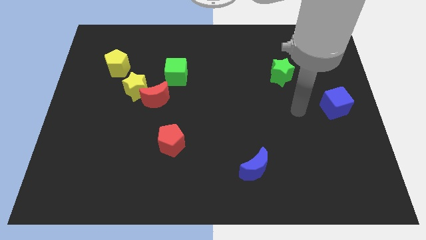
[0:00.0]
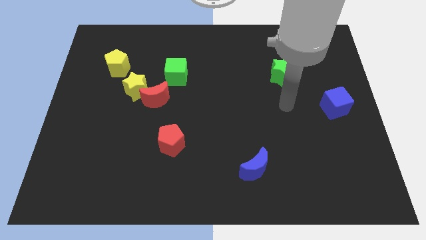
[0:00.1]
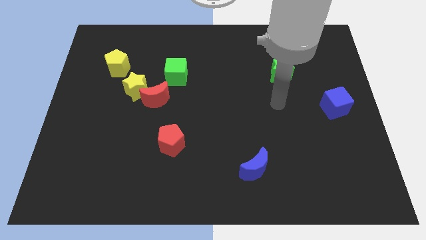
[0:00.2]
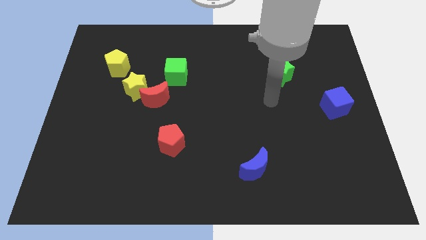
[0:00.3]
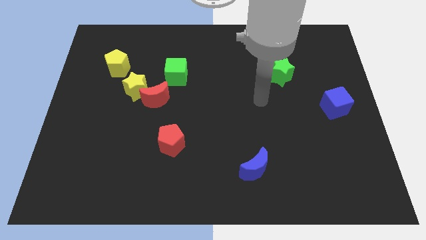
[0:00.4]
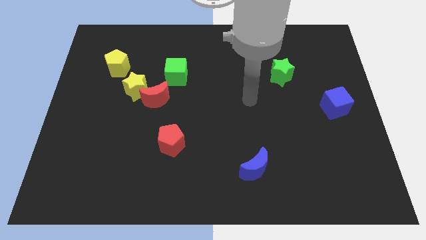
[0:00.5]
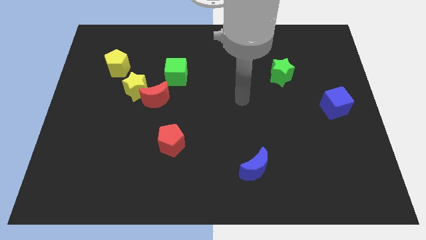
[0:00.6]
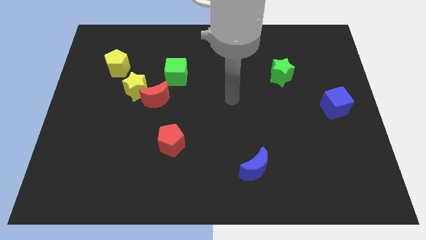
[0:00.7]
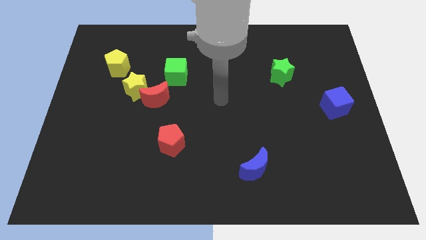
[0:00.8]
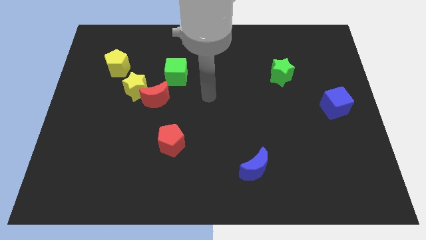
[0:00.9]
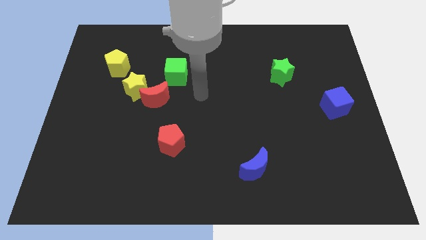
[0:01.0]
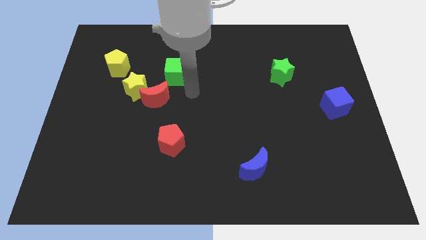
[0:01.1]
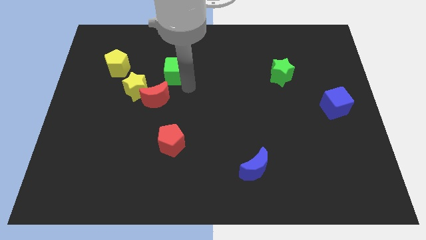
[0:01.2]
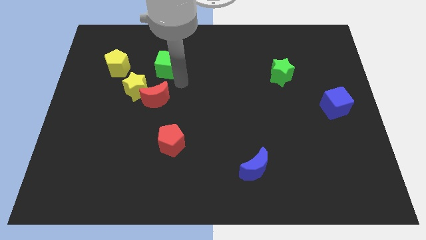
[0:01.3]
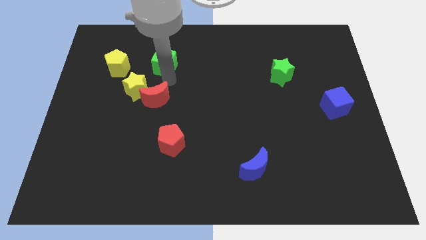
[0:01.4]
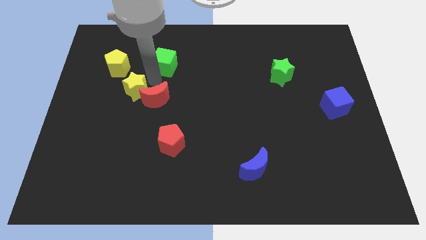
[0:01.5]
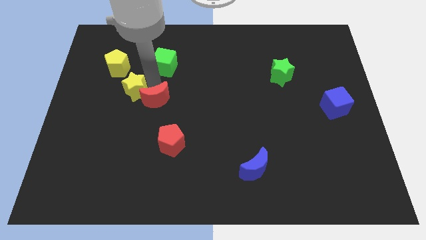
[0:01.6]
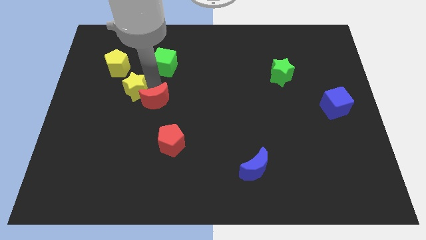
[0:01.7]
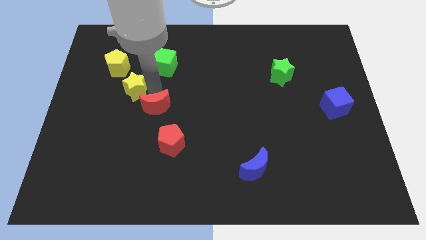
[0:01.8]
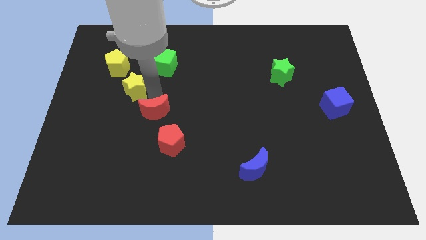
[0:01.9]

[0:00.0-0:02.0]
separate the red moon from the yellow star and green cube

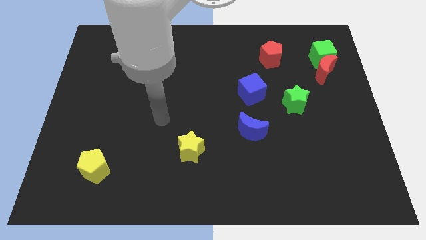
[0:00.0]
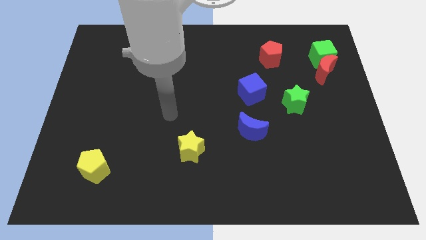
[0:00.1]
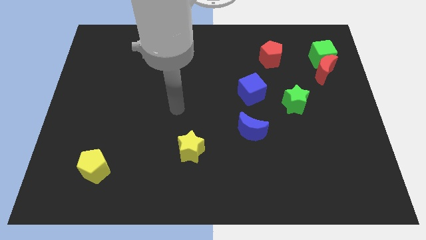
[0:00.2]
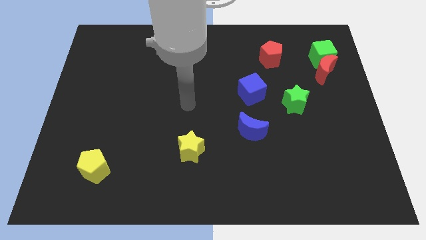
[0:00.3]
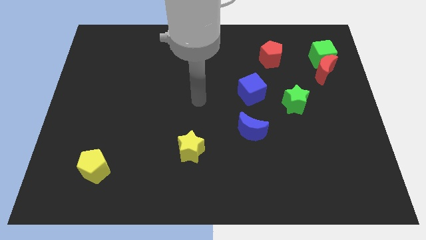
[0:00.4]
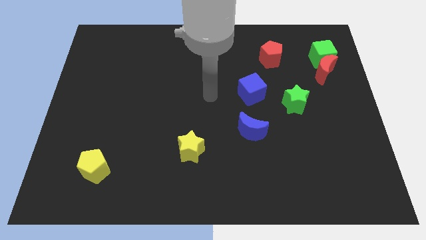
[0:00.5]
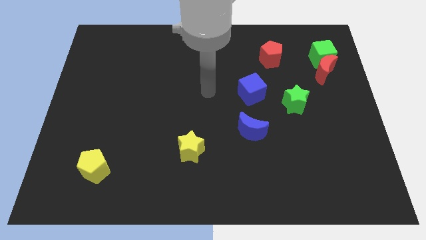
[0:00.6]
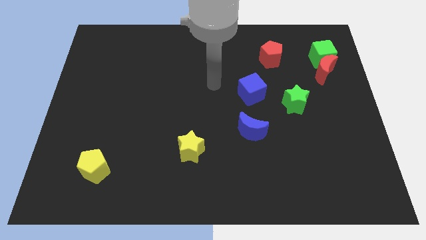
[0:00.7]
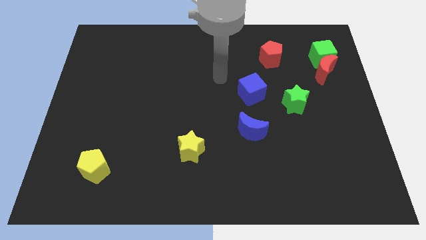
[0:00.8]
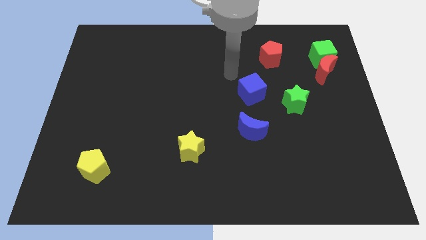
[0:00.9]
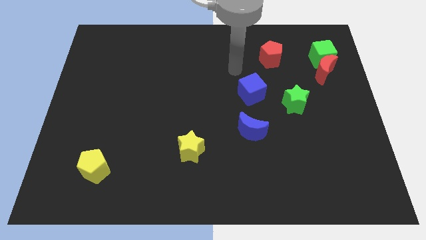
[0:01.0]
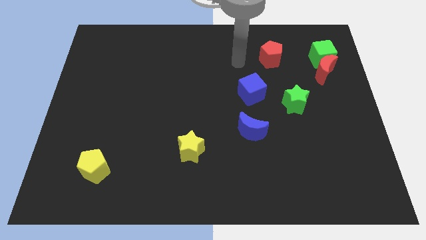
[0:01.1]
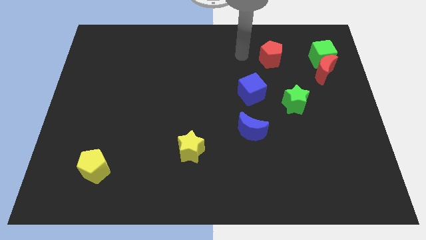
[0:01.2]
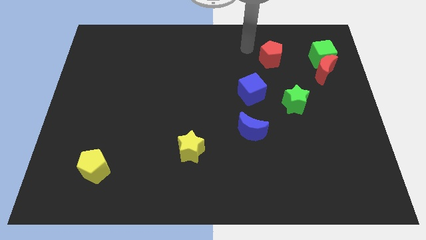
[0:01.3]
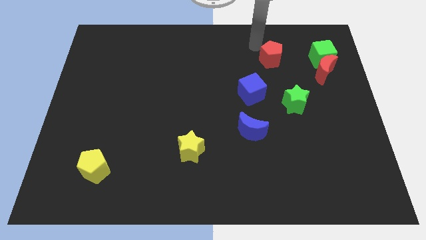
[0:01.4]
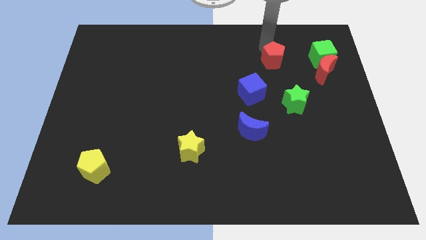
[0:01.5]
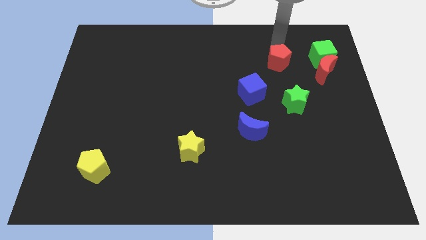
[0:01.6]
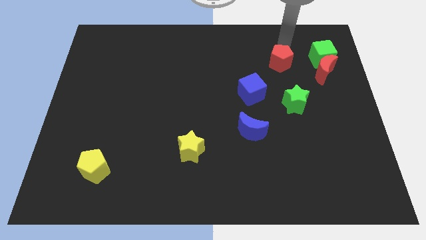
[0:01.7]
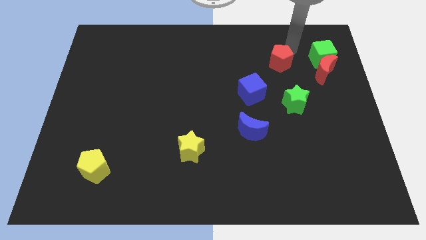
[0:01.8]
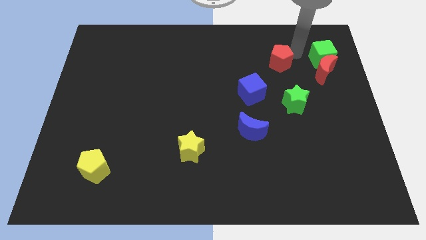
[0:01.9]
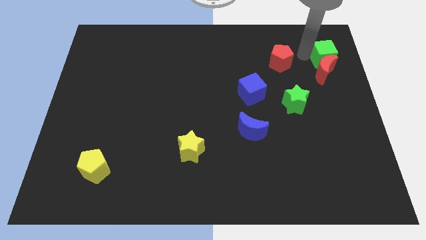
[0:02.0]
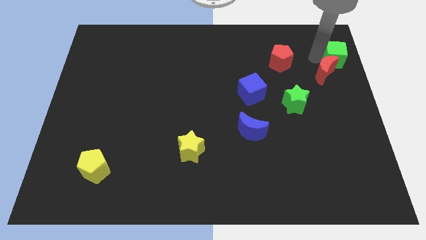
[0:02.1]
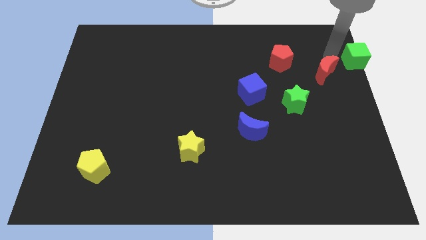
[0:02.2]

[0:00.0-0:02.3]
move the red moon away from the green cube

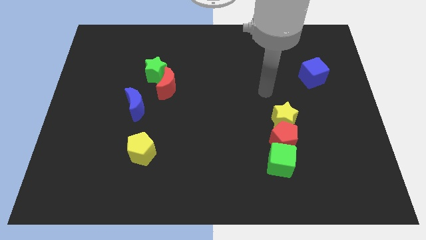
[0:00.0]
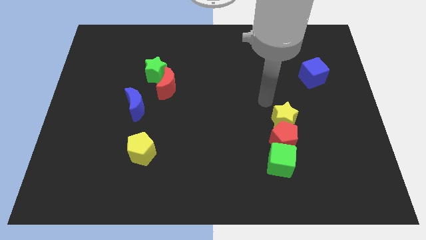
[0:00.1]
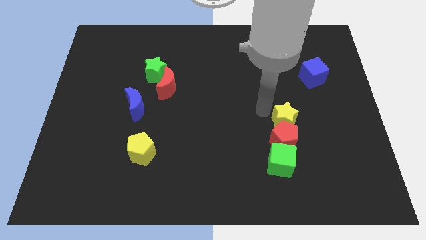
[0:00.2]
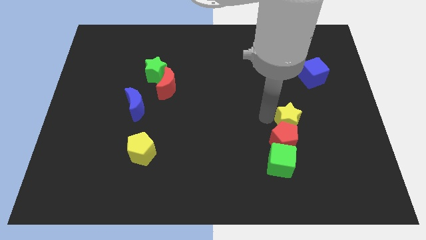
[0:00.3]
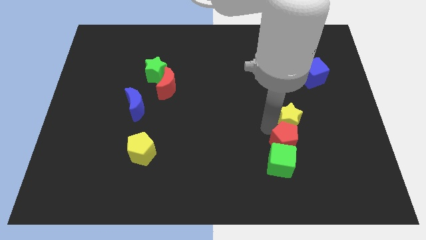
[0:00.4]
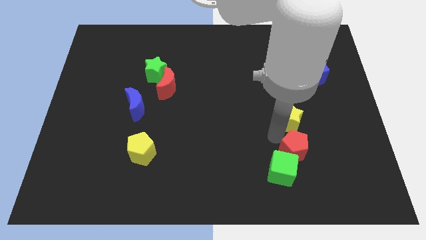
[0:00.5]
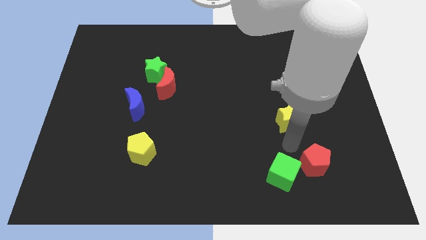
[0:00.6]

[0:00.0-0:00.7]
pull the yellow star apart from the red pentagon

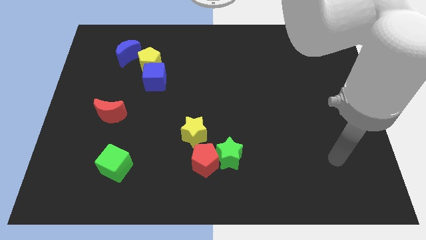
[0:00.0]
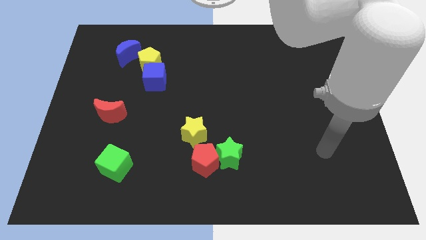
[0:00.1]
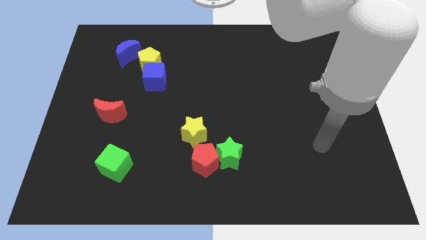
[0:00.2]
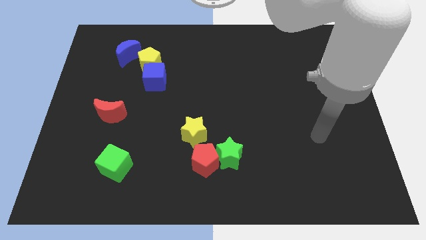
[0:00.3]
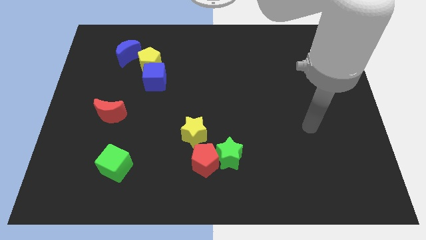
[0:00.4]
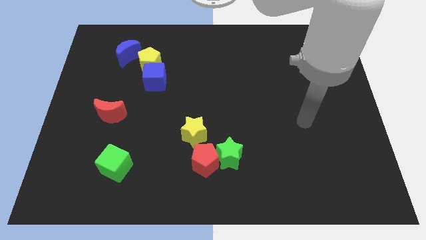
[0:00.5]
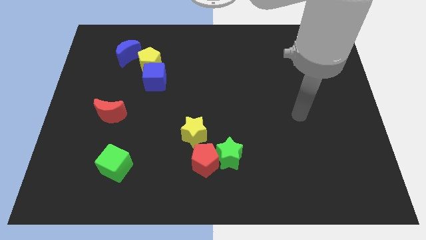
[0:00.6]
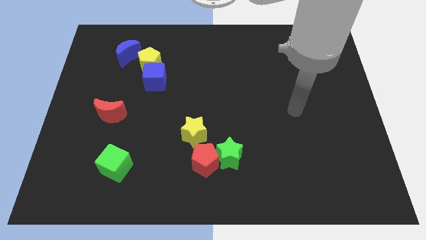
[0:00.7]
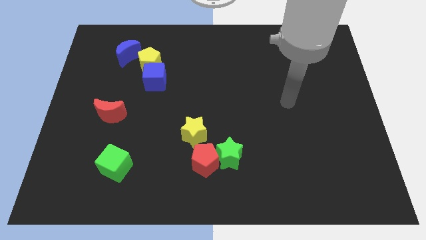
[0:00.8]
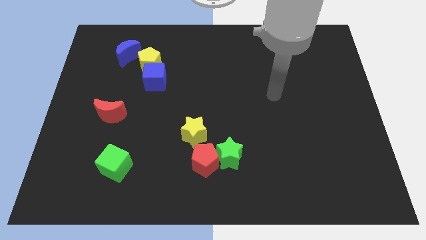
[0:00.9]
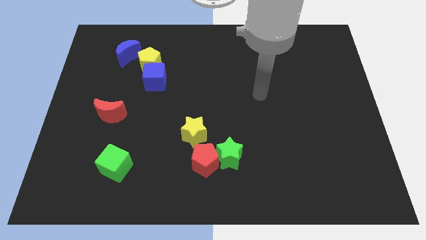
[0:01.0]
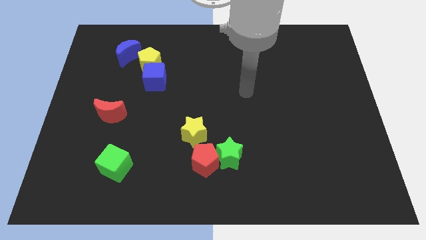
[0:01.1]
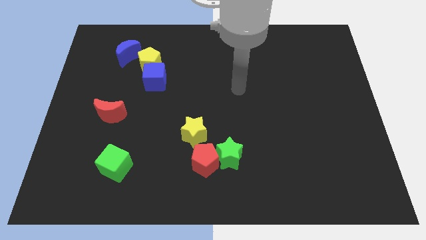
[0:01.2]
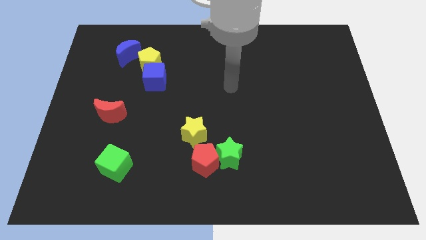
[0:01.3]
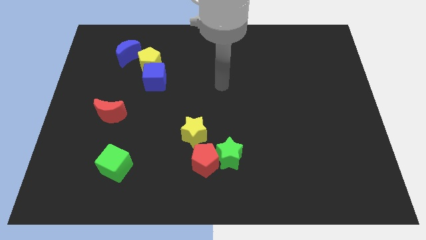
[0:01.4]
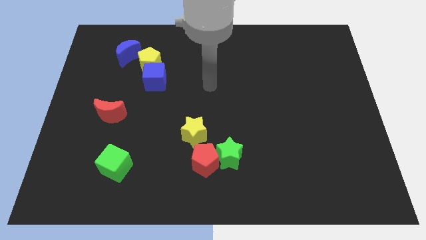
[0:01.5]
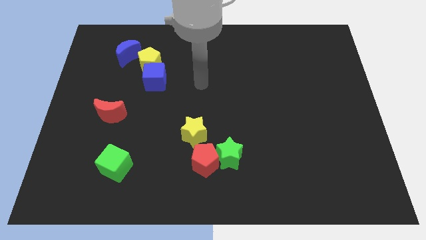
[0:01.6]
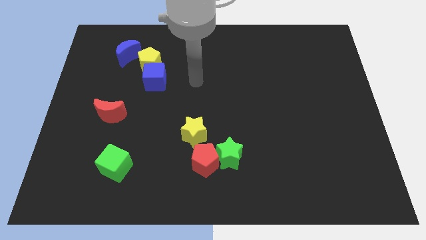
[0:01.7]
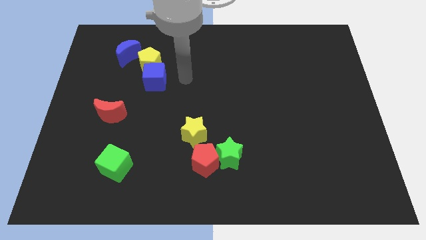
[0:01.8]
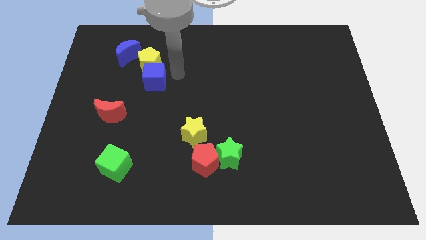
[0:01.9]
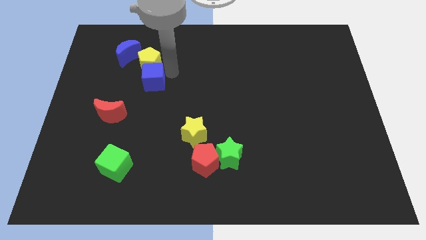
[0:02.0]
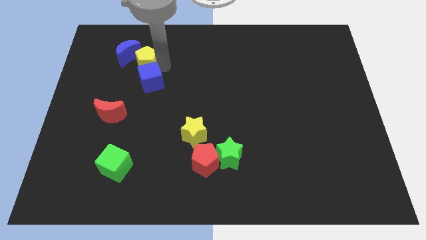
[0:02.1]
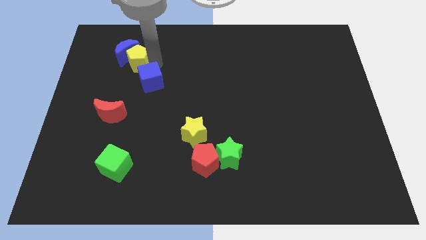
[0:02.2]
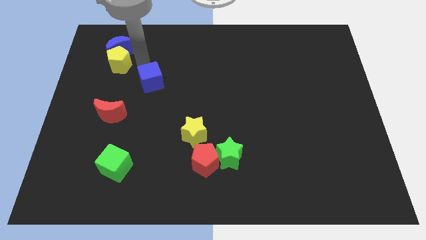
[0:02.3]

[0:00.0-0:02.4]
move the blue cube away from the yellow pentagon

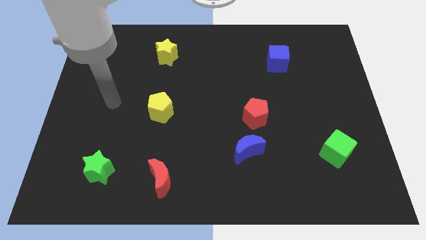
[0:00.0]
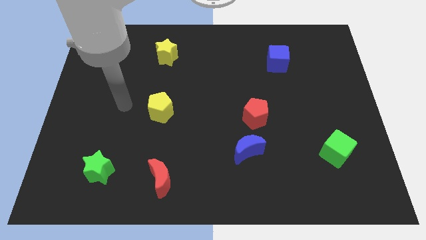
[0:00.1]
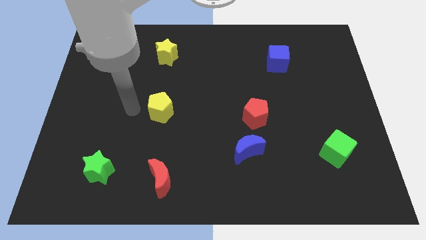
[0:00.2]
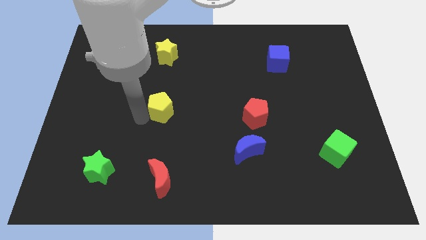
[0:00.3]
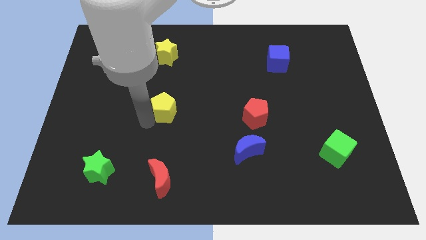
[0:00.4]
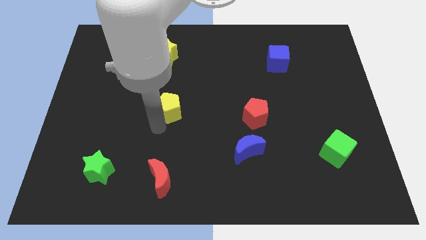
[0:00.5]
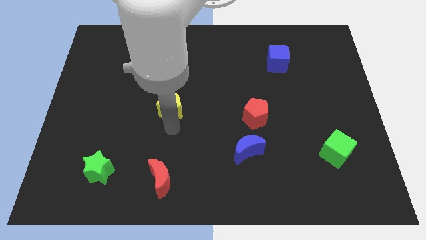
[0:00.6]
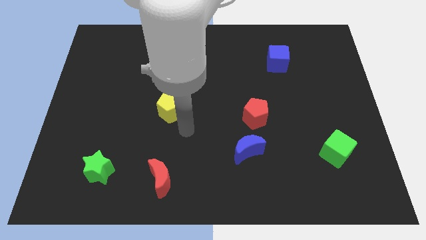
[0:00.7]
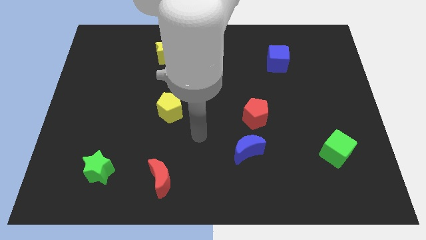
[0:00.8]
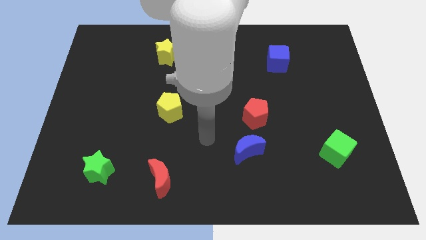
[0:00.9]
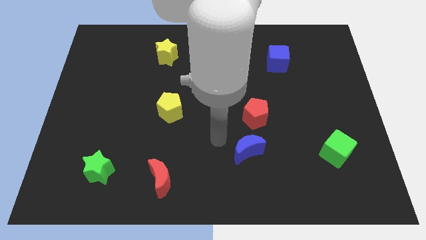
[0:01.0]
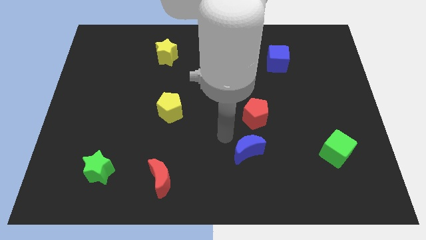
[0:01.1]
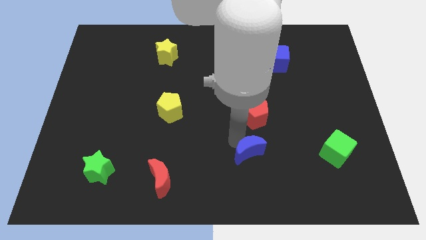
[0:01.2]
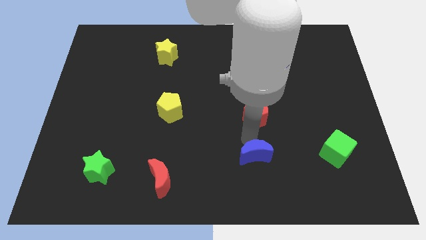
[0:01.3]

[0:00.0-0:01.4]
move the red pentagon away from the blue moon

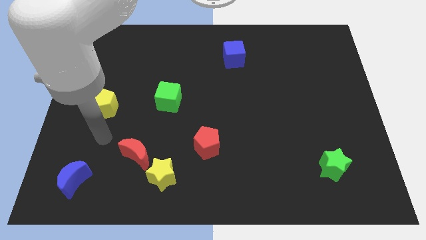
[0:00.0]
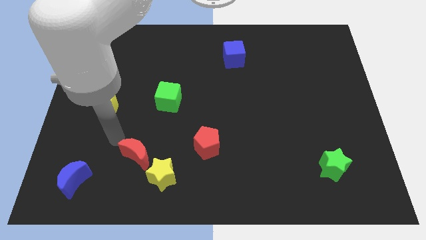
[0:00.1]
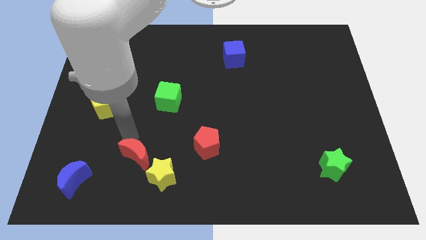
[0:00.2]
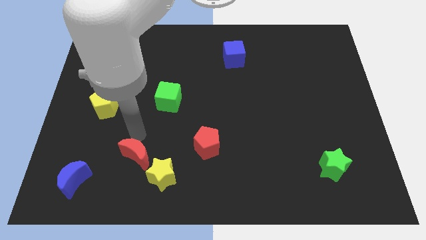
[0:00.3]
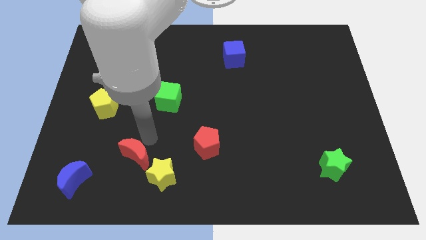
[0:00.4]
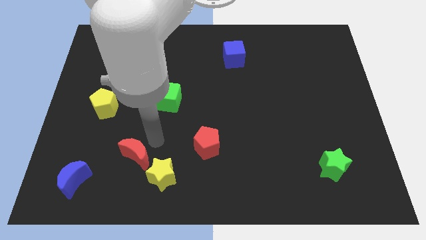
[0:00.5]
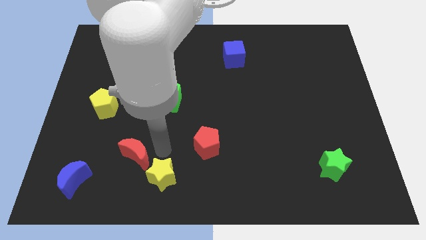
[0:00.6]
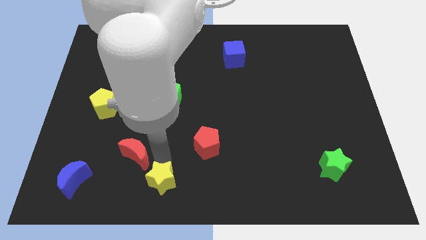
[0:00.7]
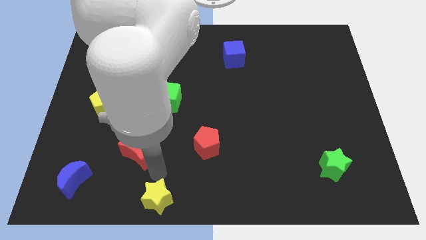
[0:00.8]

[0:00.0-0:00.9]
pull the red moon apart from the yellow star
